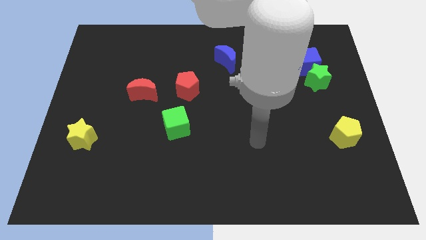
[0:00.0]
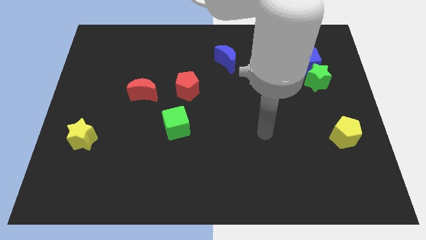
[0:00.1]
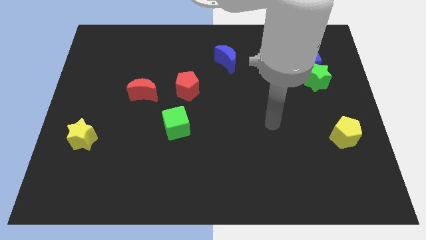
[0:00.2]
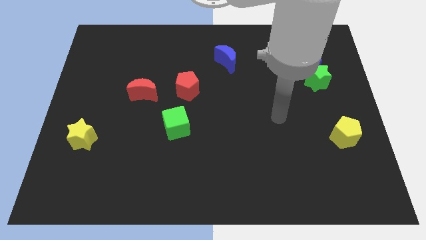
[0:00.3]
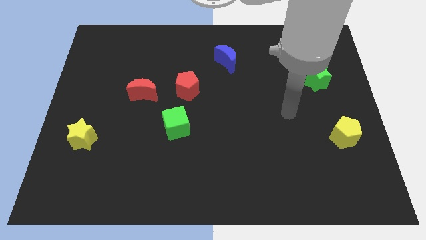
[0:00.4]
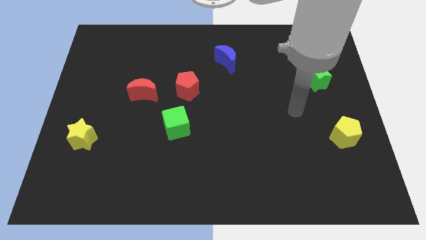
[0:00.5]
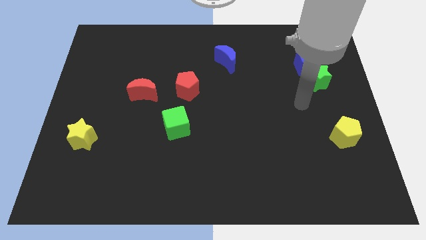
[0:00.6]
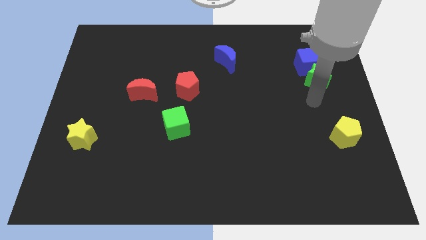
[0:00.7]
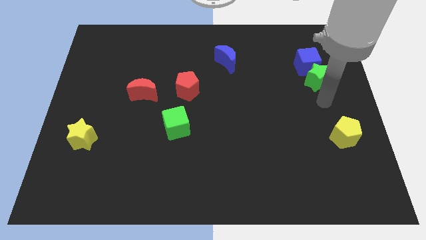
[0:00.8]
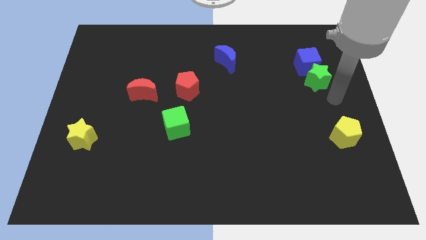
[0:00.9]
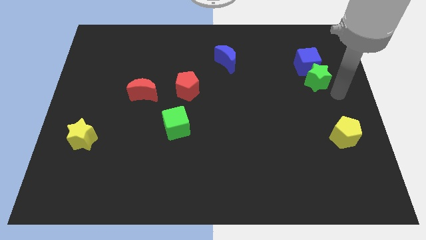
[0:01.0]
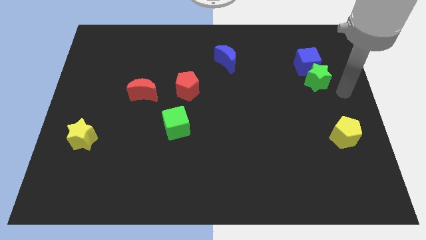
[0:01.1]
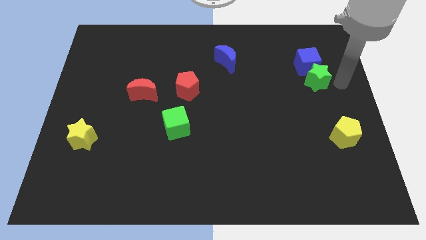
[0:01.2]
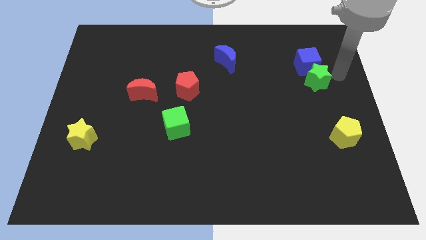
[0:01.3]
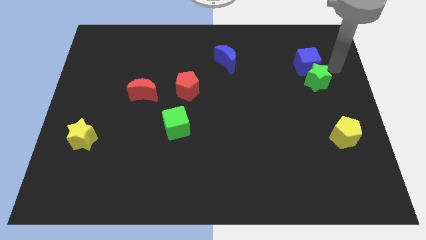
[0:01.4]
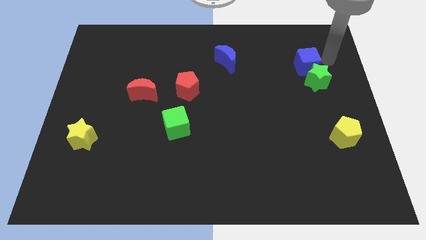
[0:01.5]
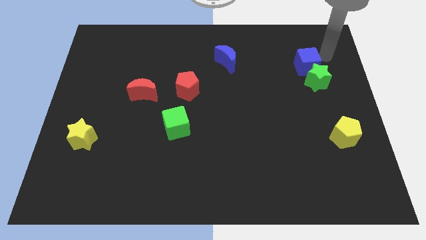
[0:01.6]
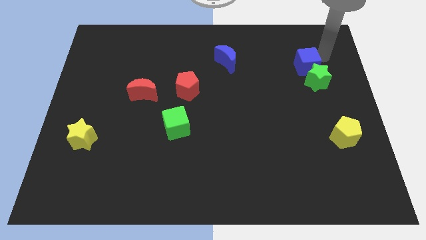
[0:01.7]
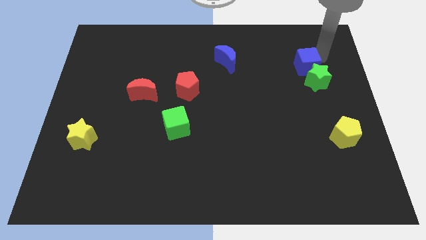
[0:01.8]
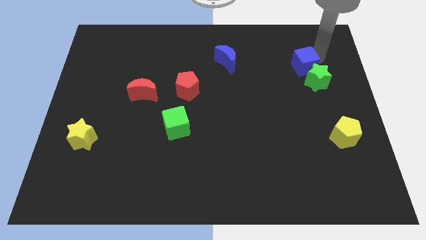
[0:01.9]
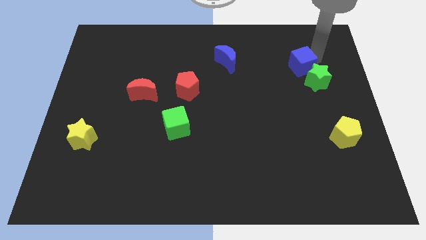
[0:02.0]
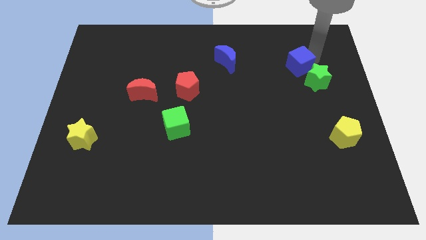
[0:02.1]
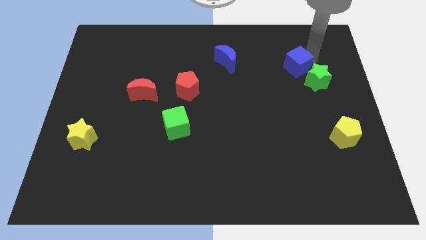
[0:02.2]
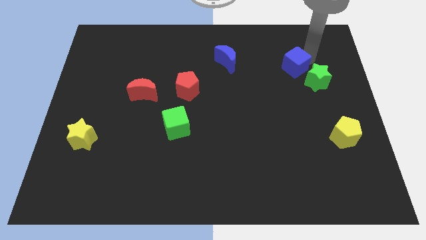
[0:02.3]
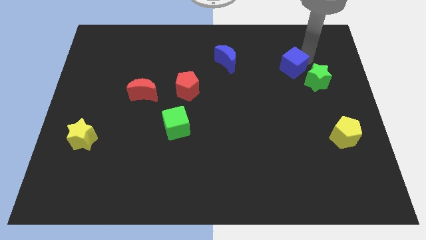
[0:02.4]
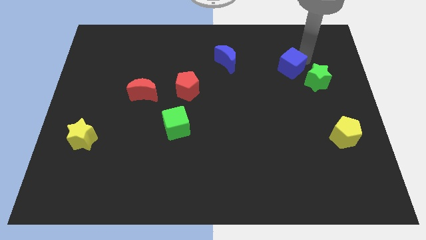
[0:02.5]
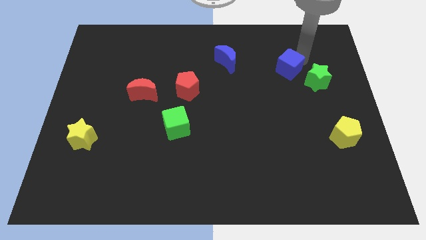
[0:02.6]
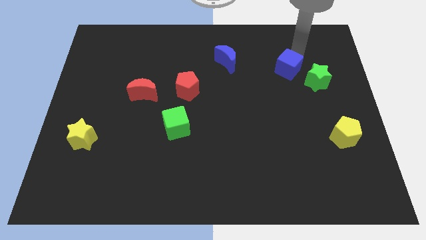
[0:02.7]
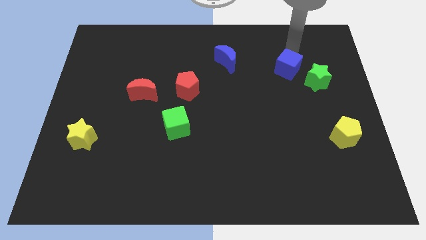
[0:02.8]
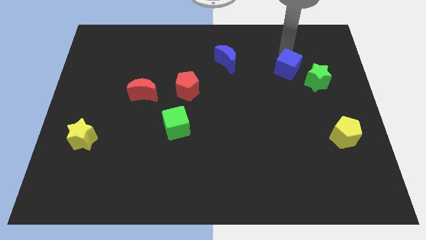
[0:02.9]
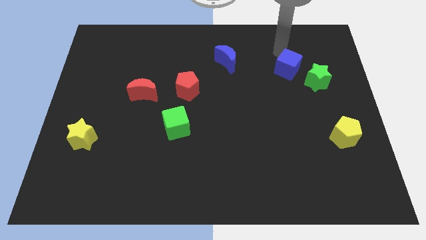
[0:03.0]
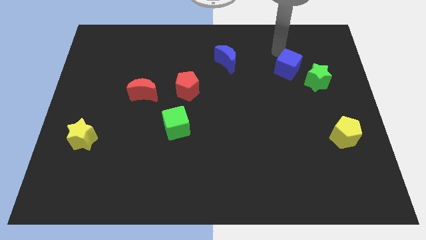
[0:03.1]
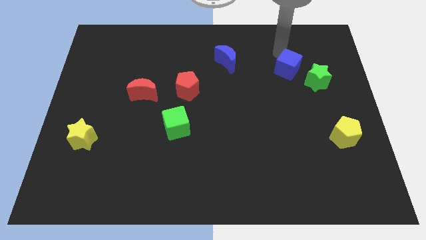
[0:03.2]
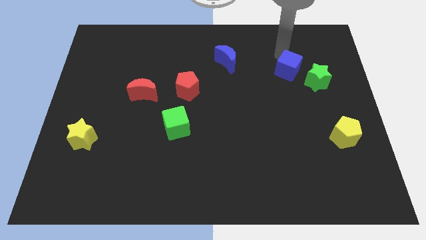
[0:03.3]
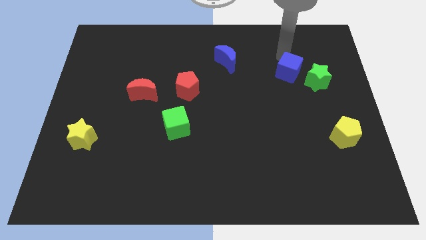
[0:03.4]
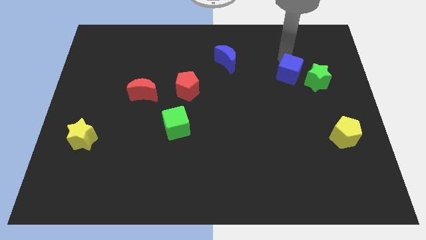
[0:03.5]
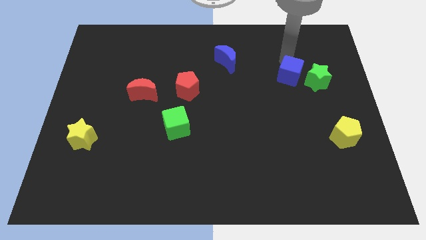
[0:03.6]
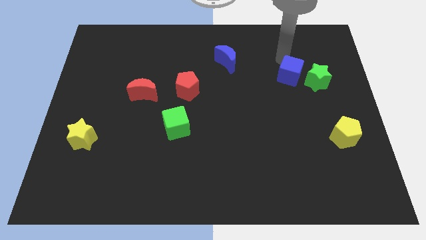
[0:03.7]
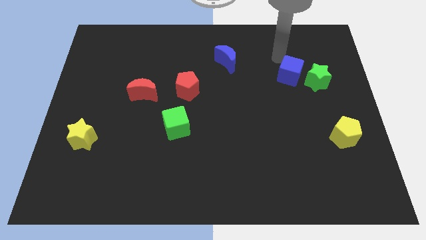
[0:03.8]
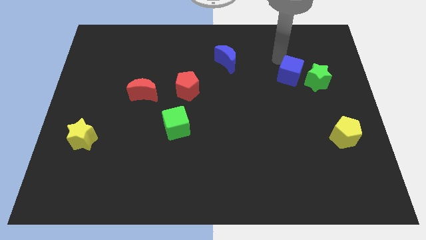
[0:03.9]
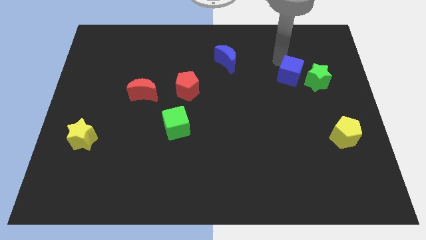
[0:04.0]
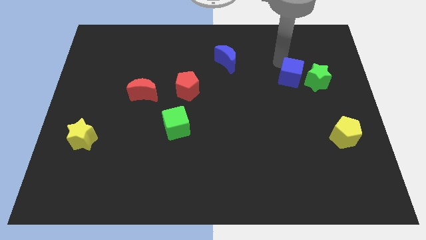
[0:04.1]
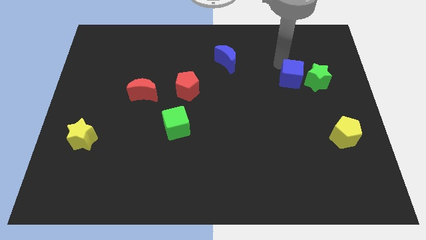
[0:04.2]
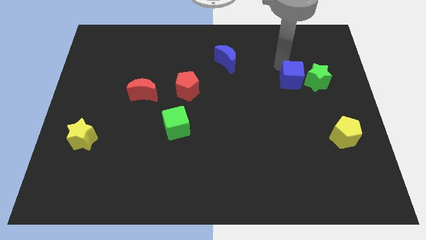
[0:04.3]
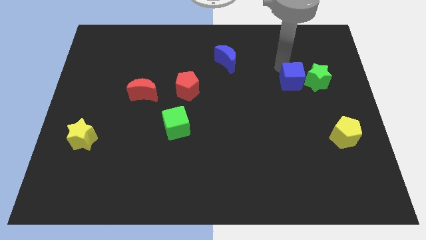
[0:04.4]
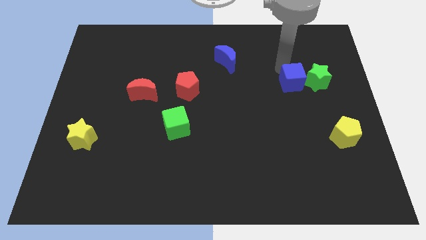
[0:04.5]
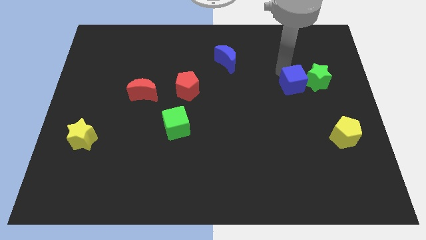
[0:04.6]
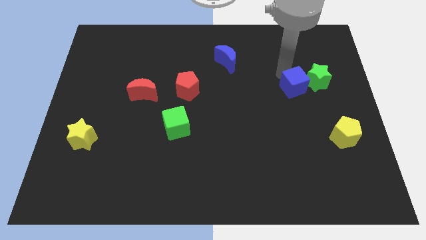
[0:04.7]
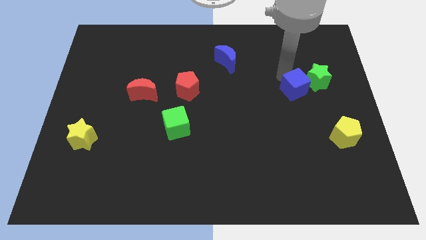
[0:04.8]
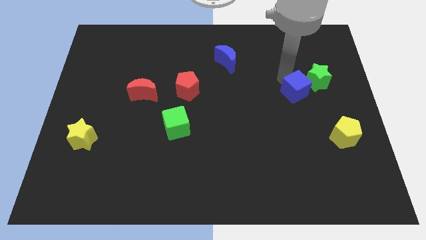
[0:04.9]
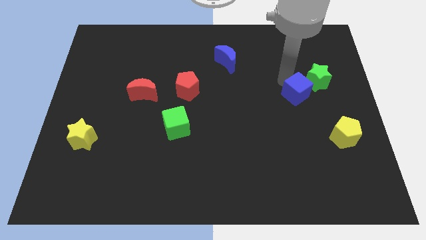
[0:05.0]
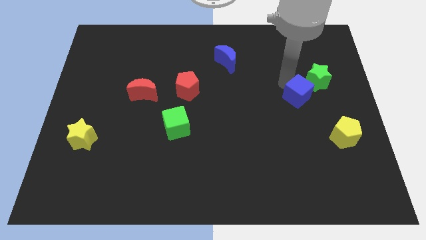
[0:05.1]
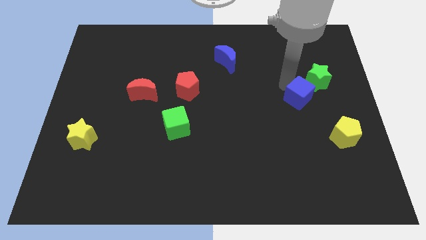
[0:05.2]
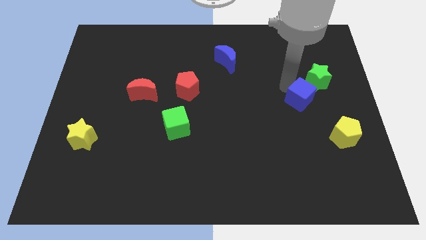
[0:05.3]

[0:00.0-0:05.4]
move the blue cube below the green star

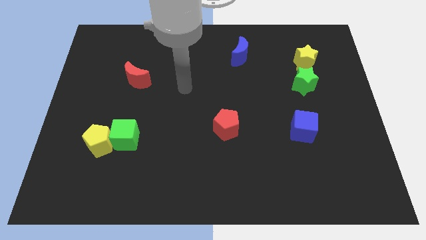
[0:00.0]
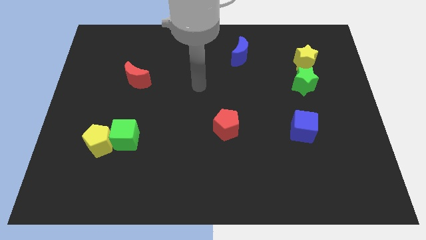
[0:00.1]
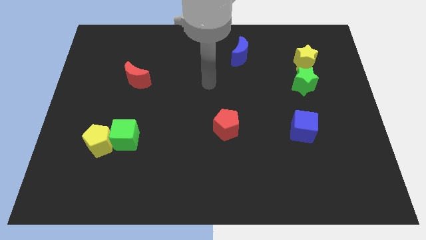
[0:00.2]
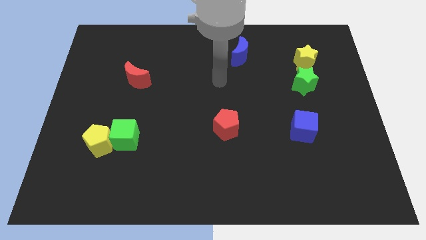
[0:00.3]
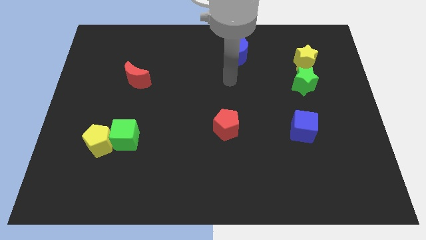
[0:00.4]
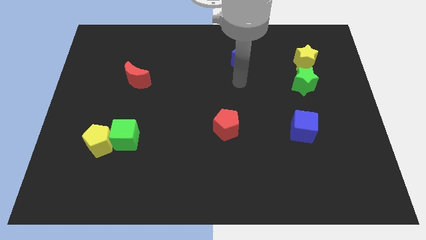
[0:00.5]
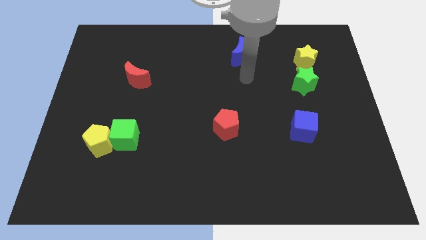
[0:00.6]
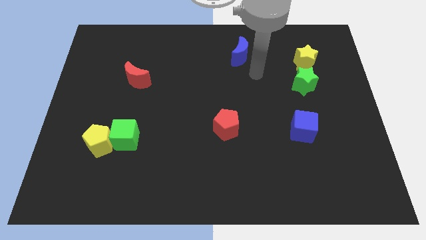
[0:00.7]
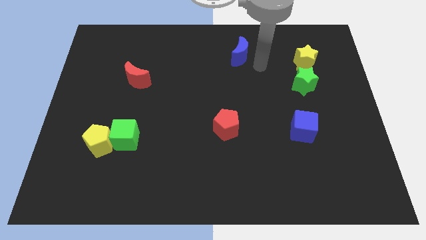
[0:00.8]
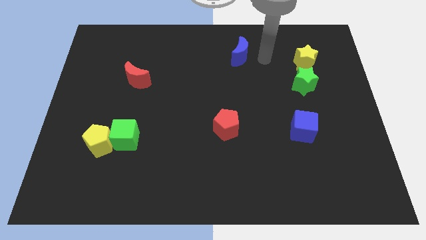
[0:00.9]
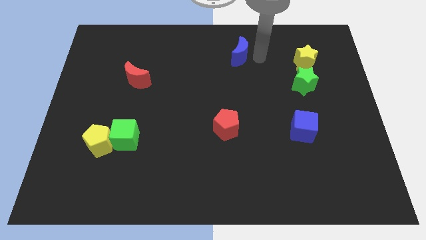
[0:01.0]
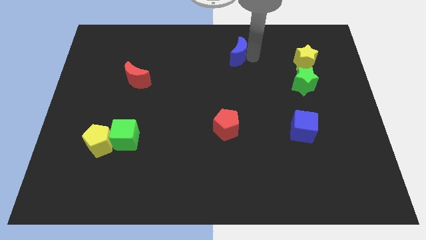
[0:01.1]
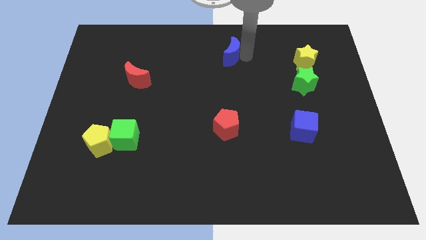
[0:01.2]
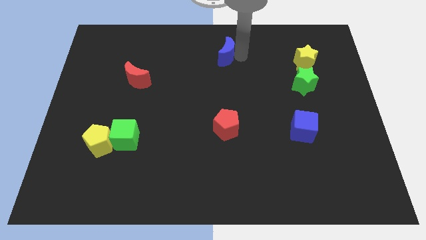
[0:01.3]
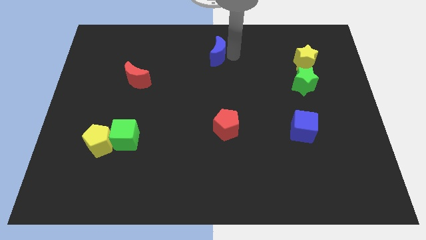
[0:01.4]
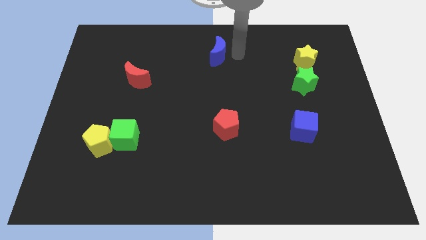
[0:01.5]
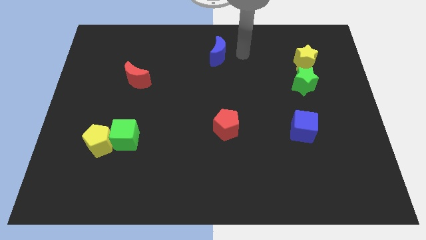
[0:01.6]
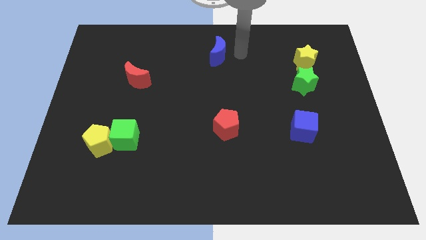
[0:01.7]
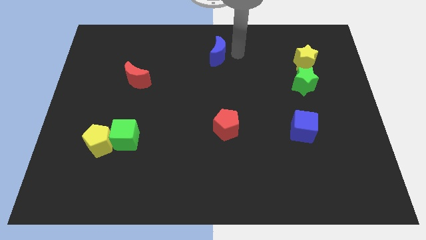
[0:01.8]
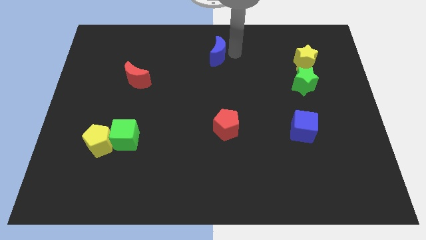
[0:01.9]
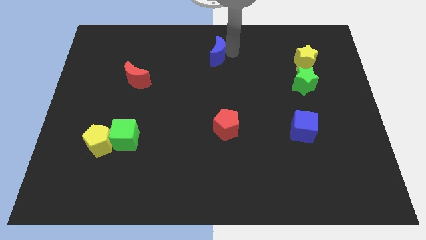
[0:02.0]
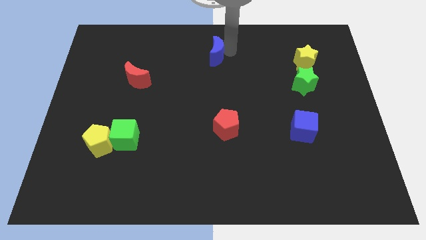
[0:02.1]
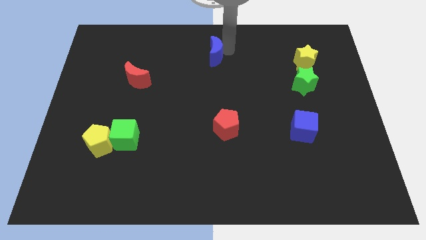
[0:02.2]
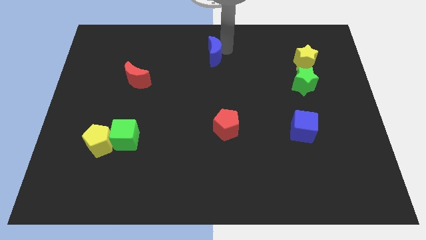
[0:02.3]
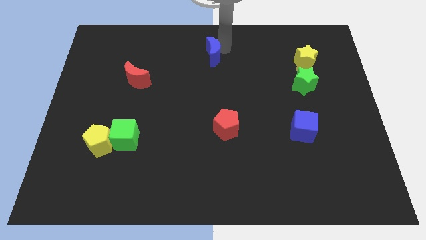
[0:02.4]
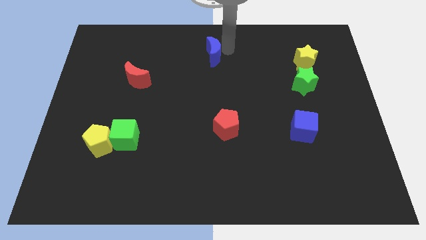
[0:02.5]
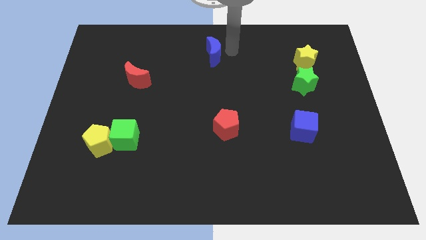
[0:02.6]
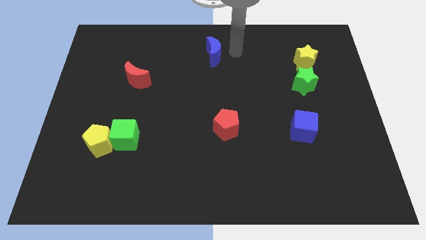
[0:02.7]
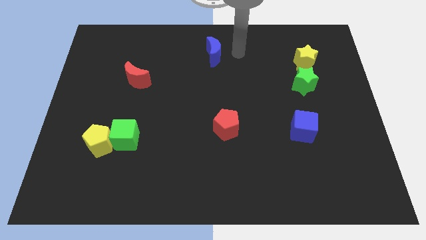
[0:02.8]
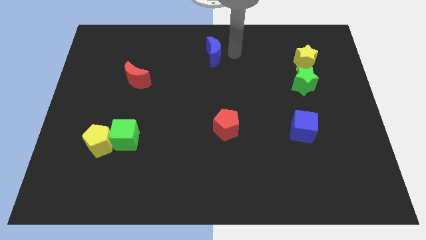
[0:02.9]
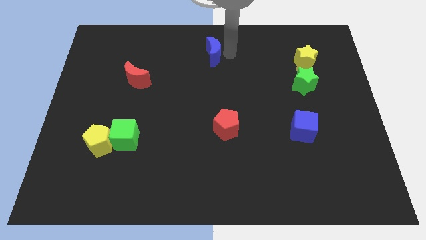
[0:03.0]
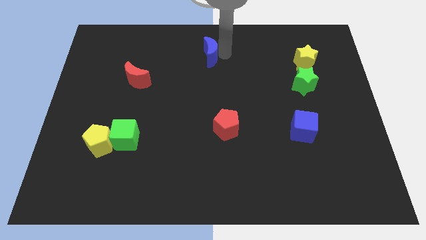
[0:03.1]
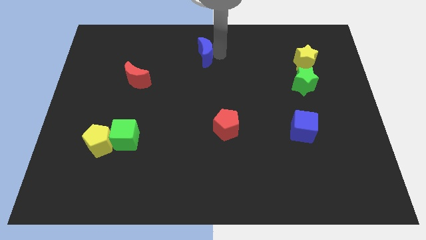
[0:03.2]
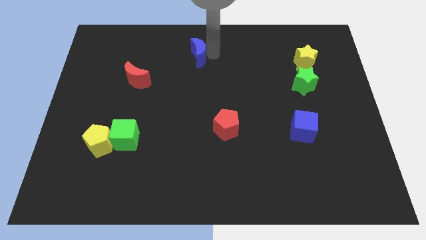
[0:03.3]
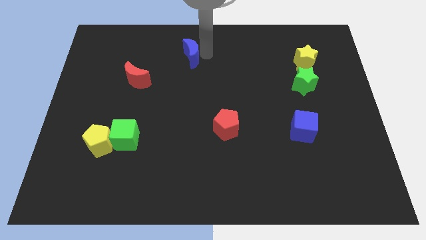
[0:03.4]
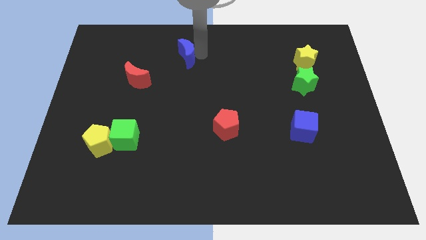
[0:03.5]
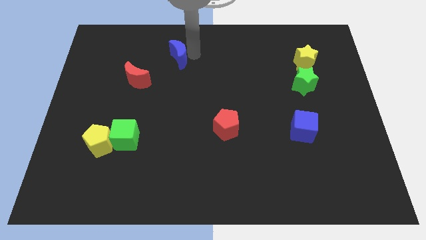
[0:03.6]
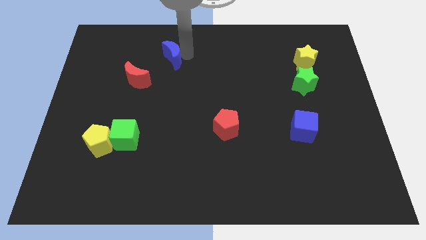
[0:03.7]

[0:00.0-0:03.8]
move the blue moon to the top right side of the red moon
